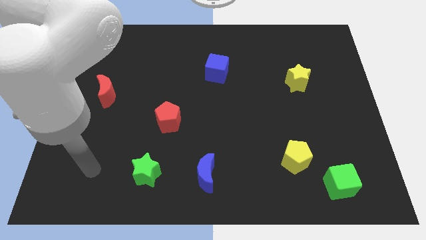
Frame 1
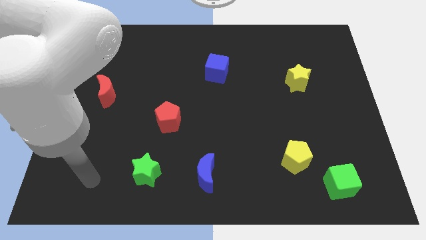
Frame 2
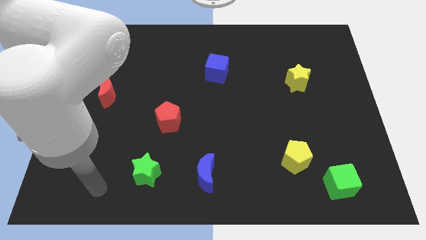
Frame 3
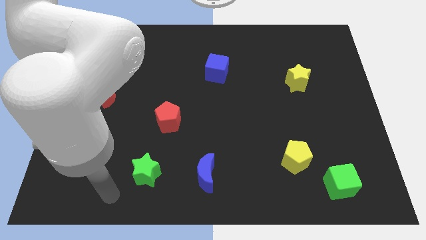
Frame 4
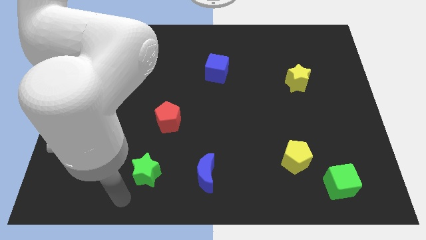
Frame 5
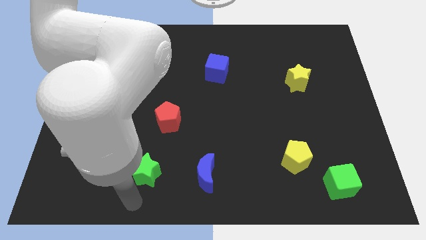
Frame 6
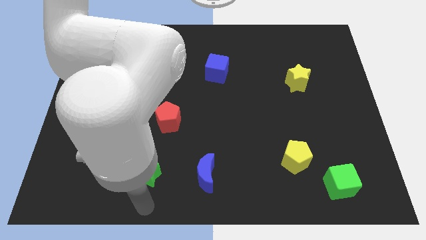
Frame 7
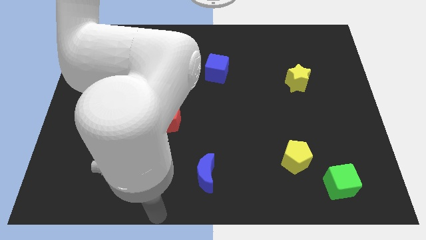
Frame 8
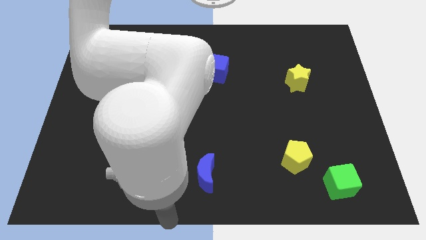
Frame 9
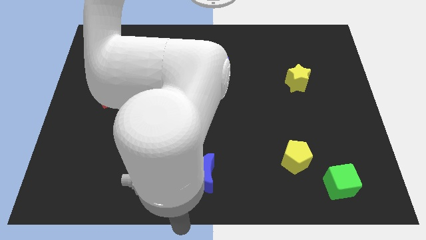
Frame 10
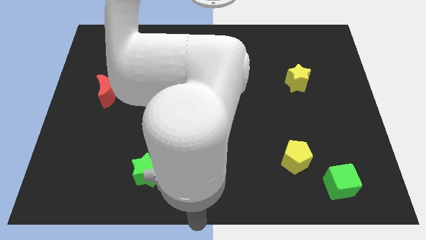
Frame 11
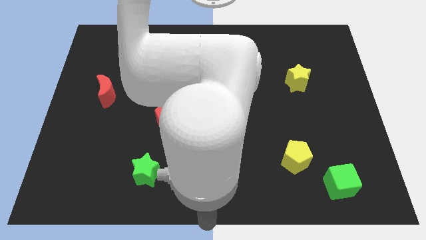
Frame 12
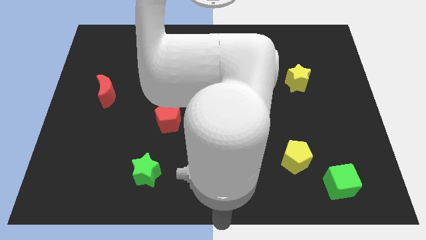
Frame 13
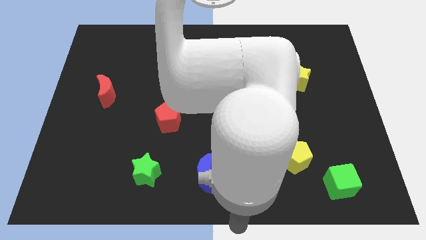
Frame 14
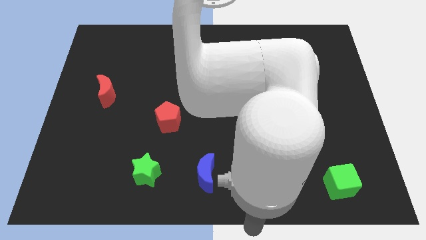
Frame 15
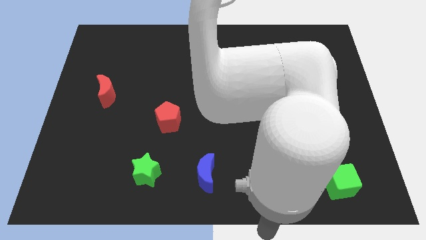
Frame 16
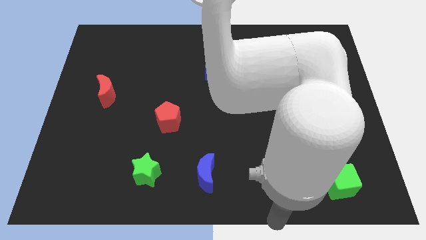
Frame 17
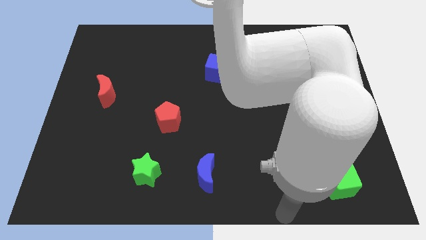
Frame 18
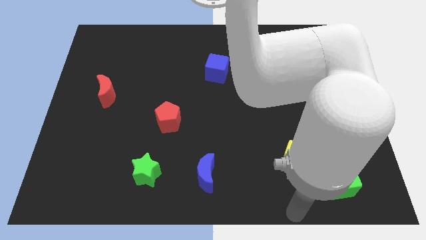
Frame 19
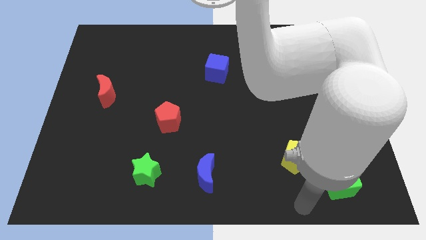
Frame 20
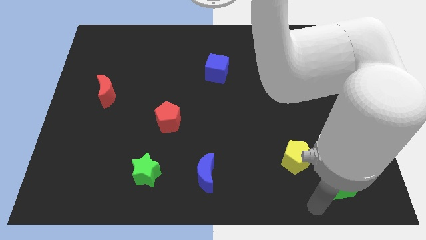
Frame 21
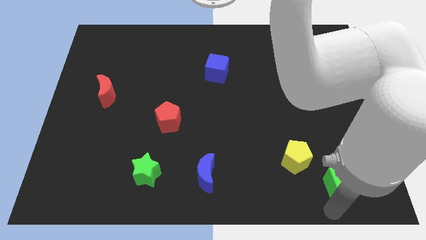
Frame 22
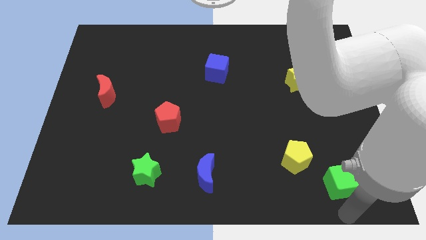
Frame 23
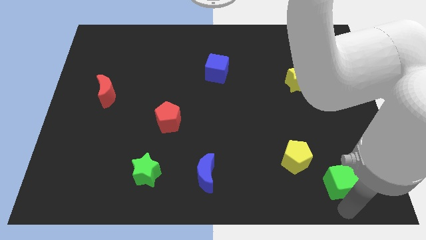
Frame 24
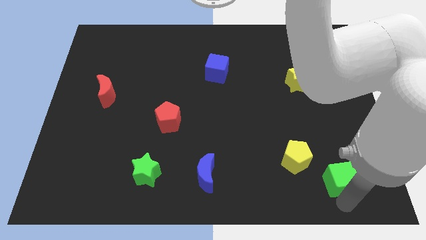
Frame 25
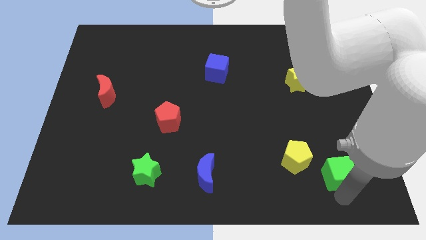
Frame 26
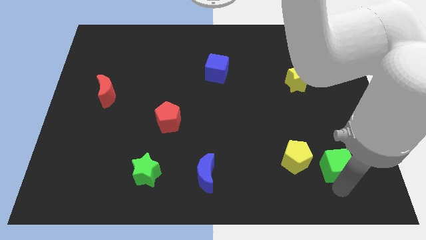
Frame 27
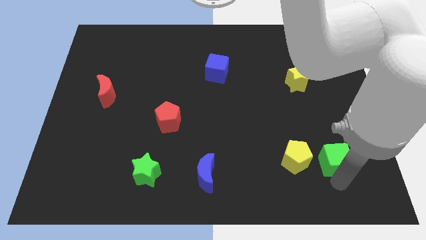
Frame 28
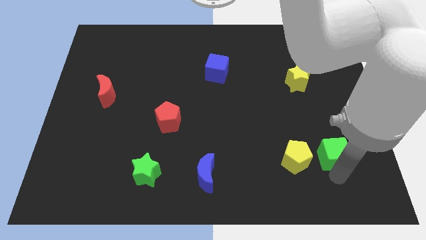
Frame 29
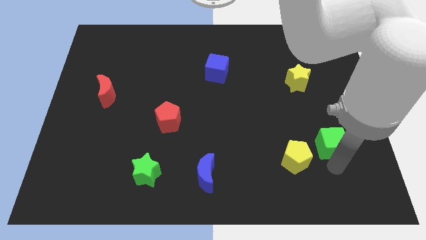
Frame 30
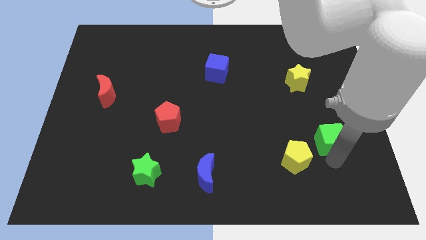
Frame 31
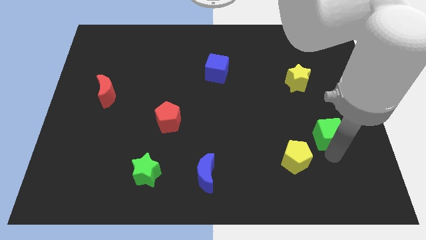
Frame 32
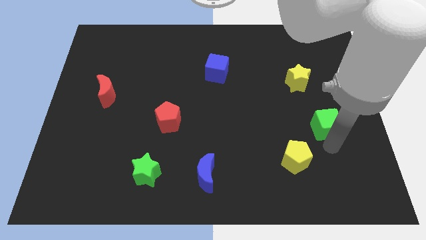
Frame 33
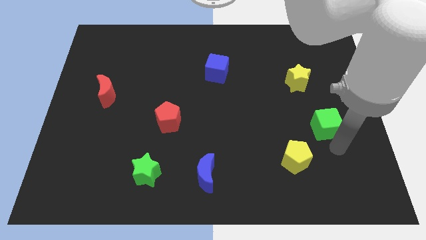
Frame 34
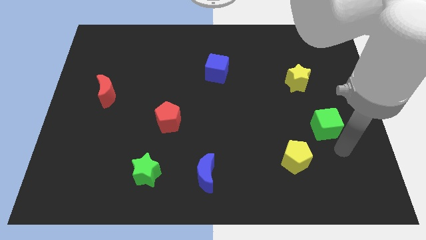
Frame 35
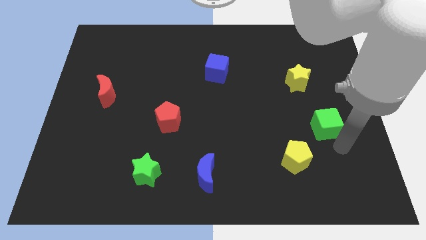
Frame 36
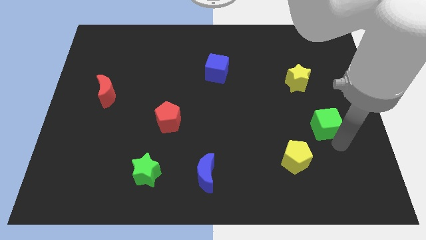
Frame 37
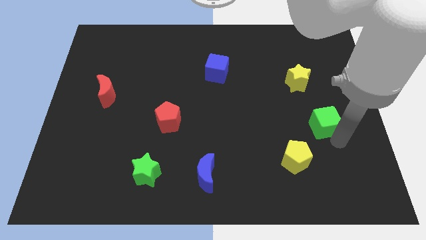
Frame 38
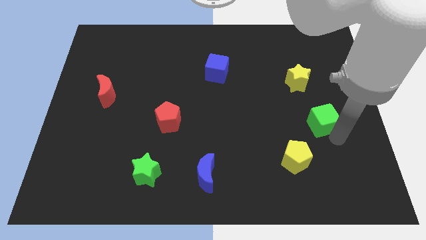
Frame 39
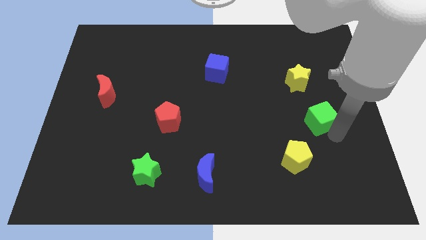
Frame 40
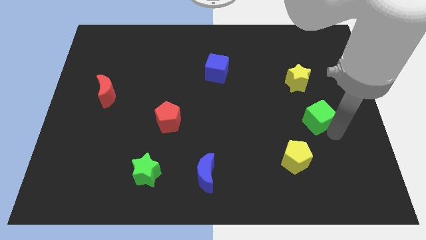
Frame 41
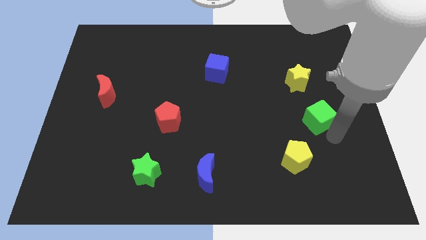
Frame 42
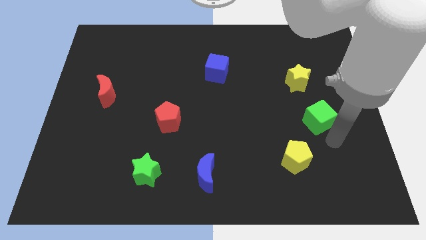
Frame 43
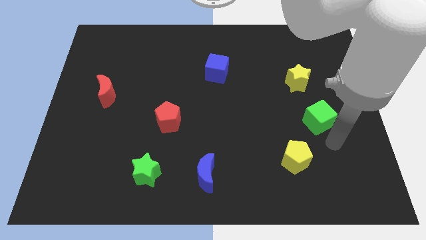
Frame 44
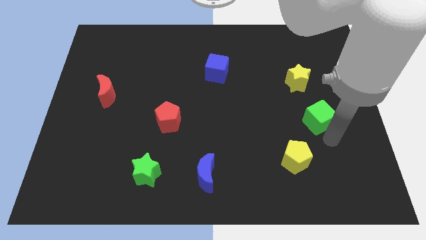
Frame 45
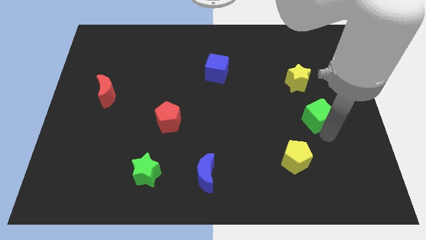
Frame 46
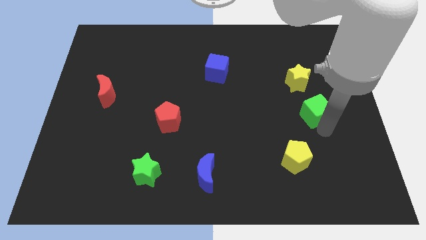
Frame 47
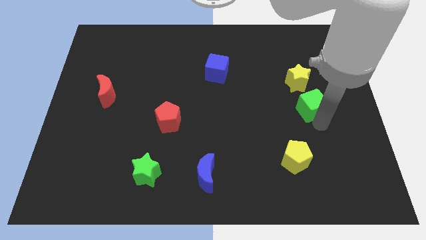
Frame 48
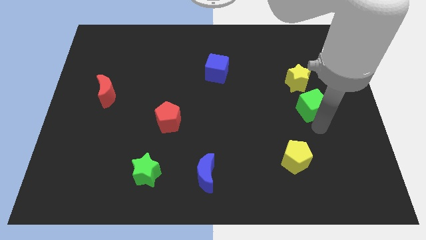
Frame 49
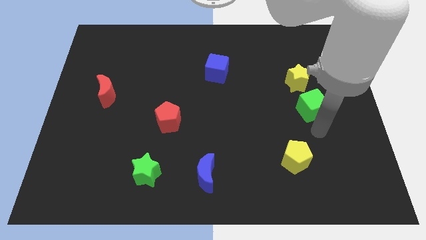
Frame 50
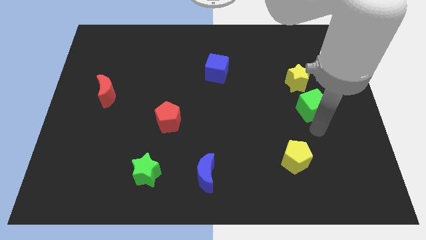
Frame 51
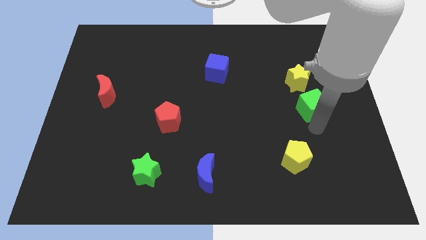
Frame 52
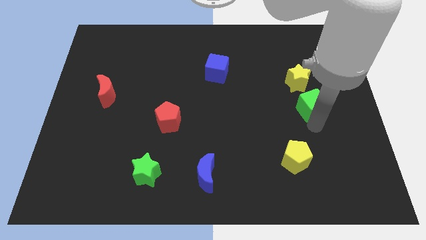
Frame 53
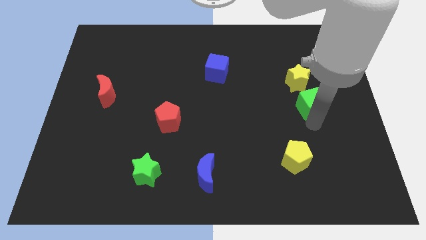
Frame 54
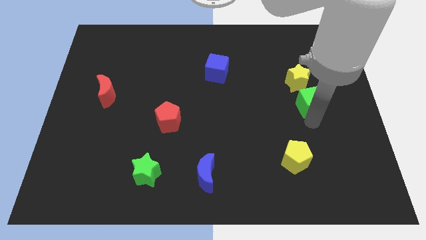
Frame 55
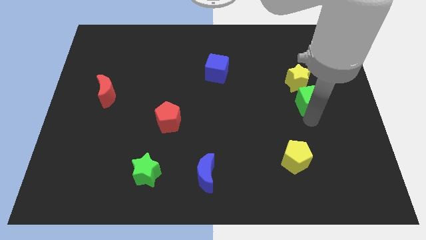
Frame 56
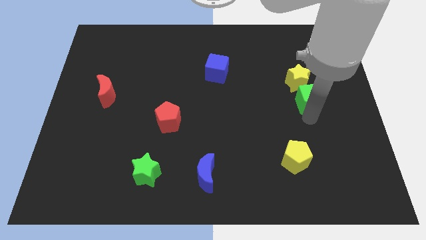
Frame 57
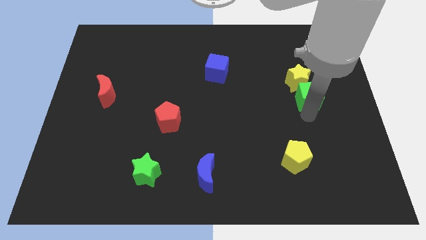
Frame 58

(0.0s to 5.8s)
move the green cube towards the yellow star
